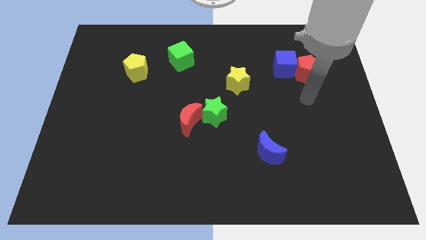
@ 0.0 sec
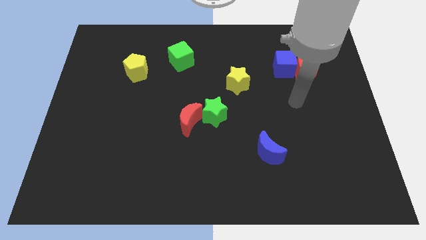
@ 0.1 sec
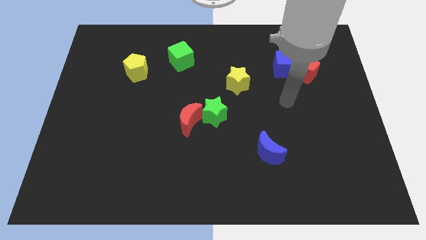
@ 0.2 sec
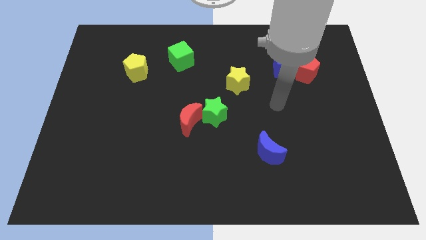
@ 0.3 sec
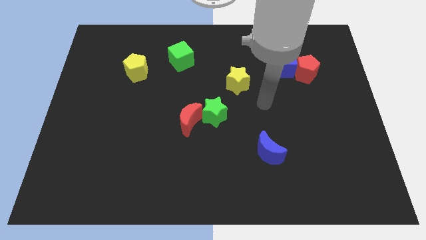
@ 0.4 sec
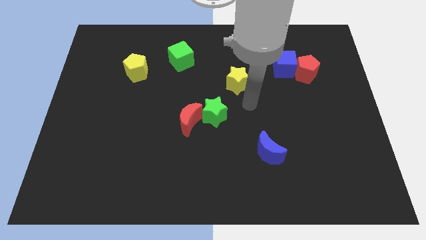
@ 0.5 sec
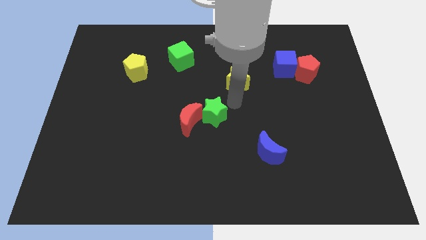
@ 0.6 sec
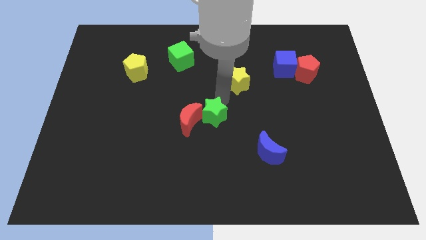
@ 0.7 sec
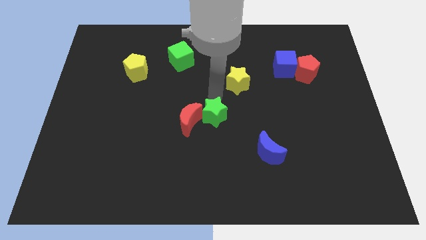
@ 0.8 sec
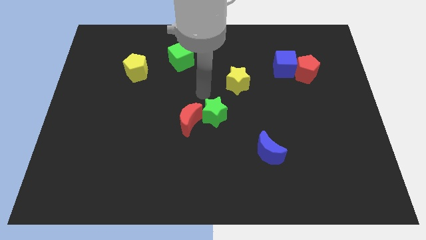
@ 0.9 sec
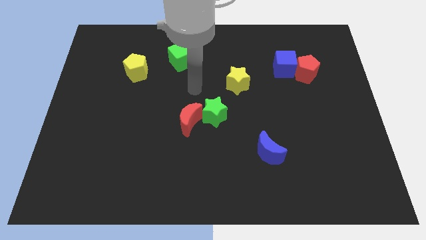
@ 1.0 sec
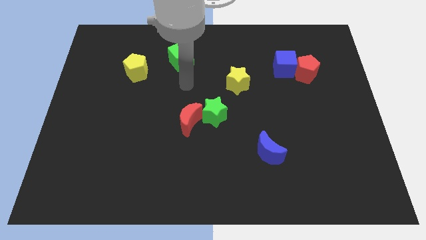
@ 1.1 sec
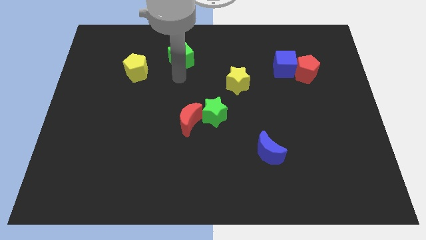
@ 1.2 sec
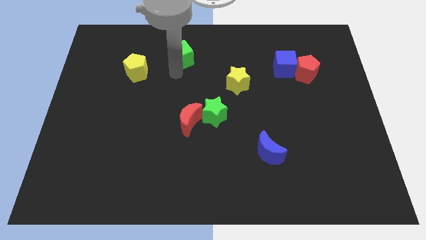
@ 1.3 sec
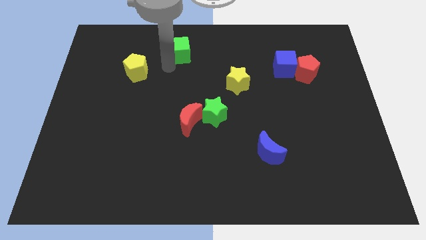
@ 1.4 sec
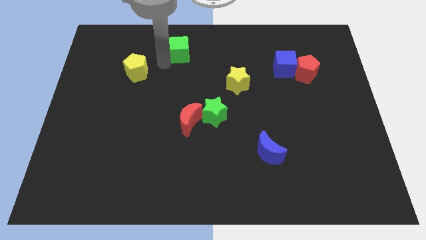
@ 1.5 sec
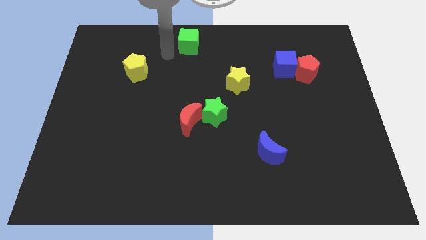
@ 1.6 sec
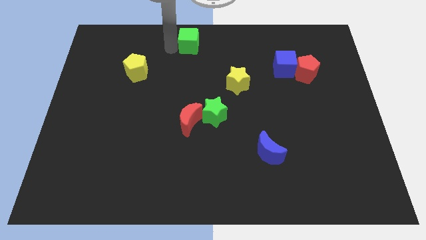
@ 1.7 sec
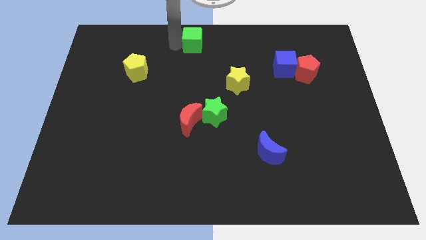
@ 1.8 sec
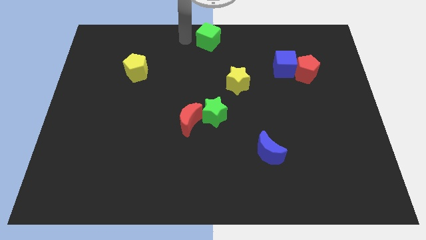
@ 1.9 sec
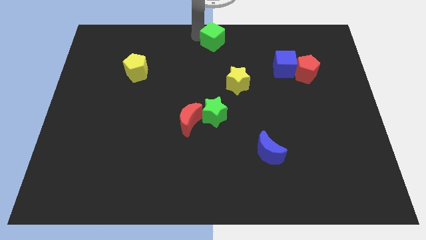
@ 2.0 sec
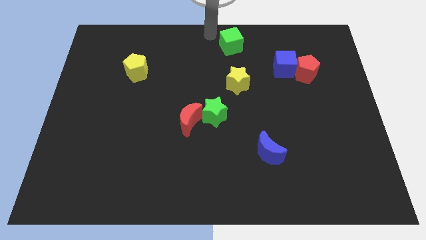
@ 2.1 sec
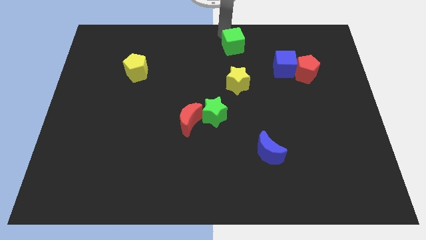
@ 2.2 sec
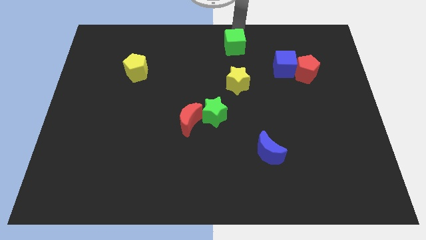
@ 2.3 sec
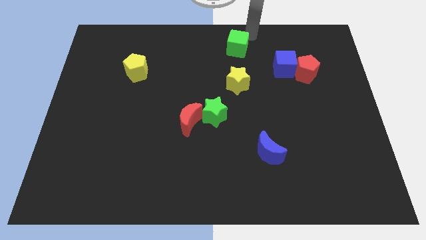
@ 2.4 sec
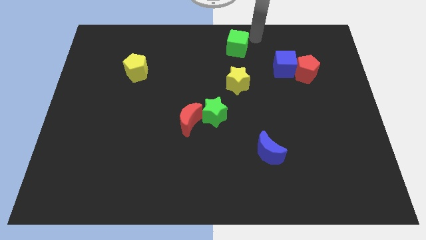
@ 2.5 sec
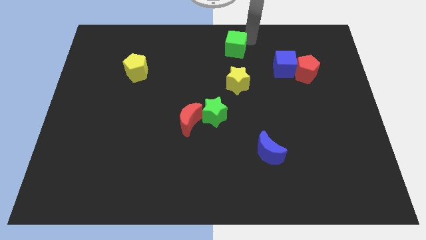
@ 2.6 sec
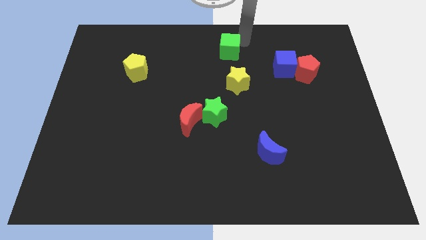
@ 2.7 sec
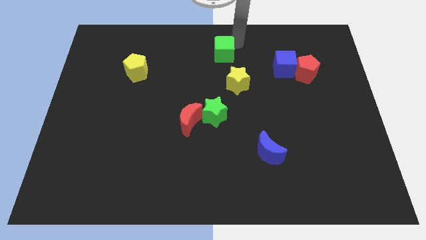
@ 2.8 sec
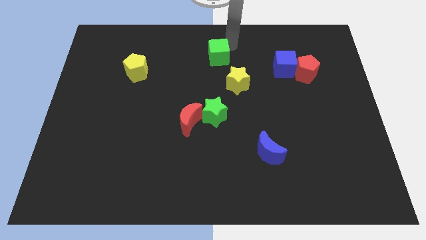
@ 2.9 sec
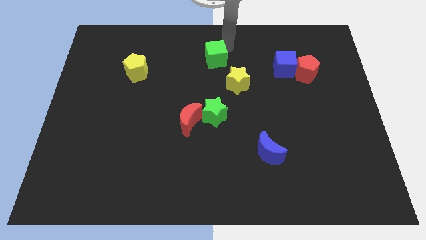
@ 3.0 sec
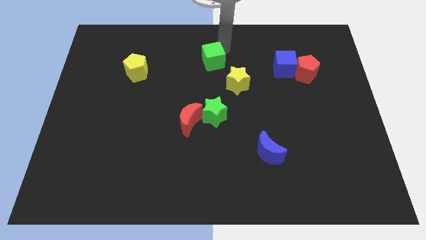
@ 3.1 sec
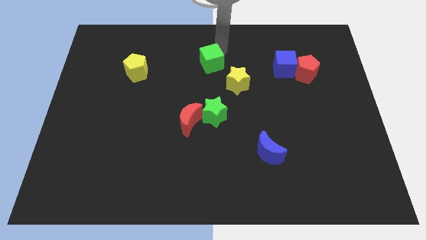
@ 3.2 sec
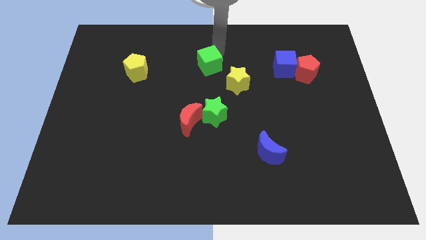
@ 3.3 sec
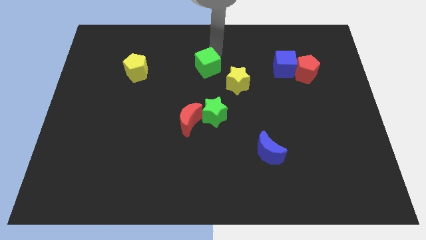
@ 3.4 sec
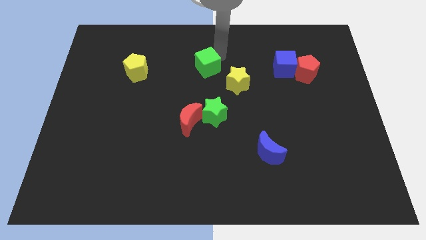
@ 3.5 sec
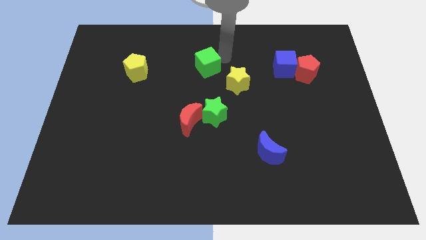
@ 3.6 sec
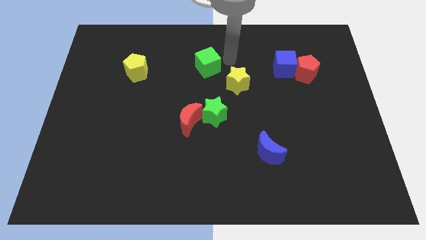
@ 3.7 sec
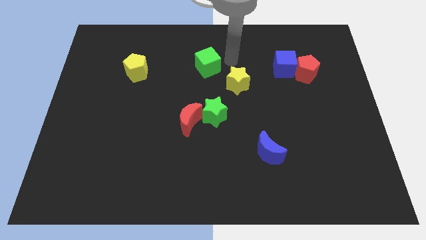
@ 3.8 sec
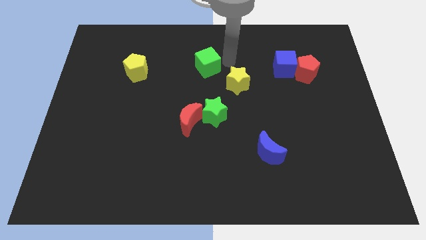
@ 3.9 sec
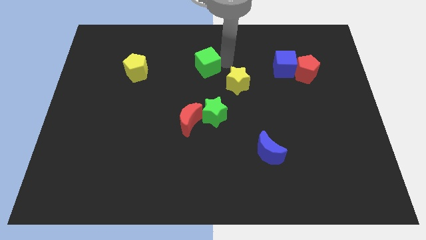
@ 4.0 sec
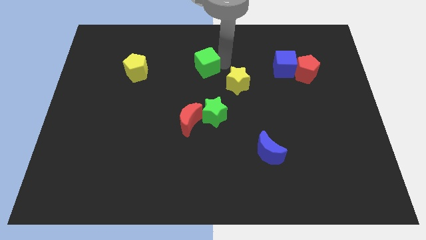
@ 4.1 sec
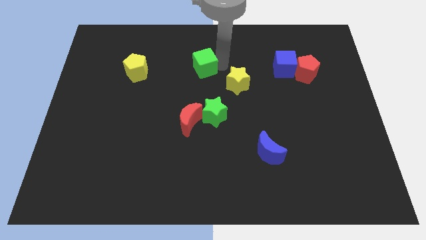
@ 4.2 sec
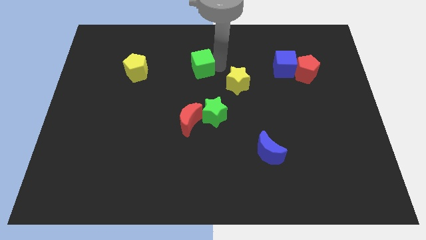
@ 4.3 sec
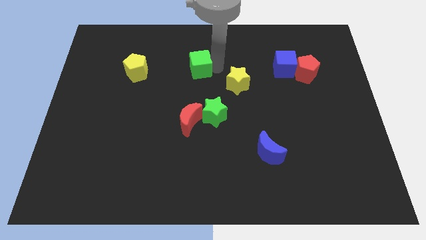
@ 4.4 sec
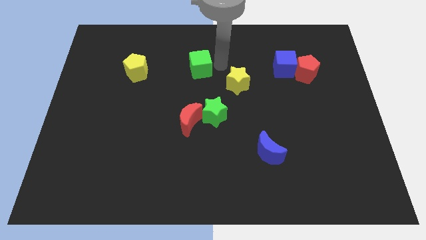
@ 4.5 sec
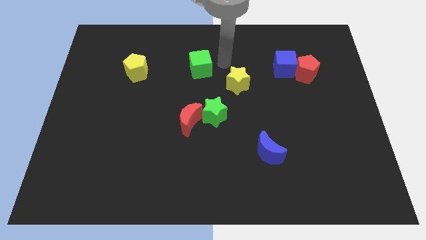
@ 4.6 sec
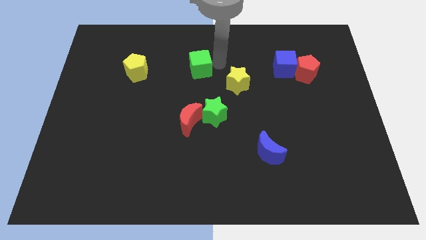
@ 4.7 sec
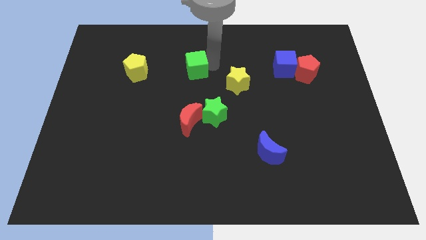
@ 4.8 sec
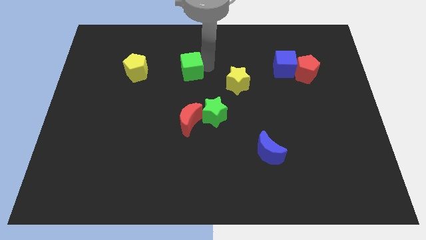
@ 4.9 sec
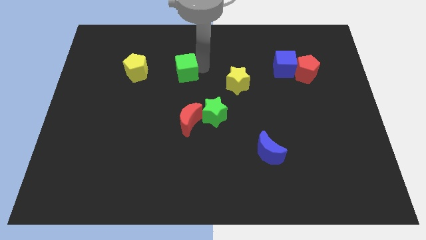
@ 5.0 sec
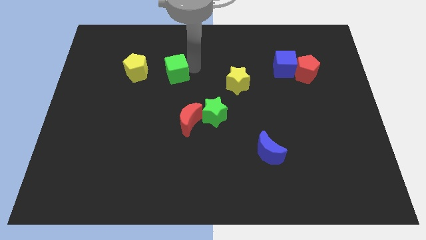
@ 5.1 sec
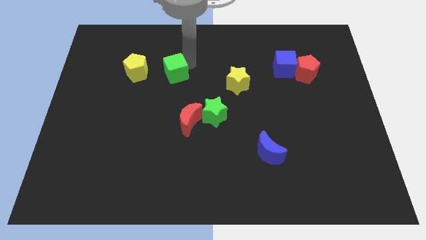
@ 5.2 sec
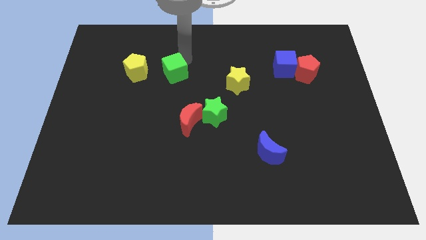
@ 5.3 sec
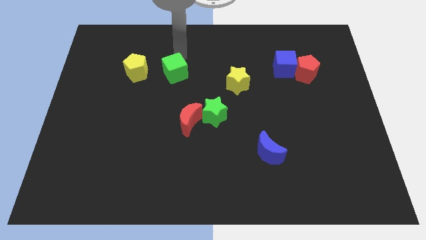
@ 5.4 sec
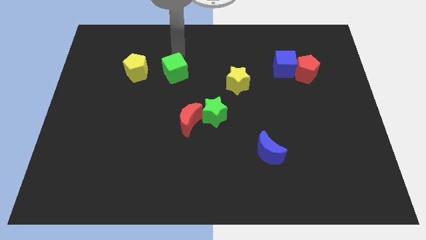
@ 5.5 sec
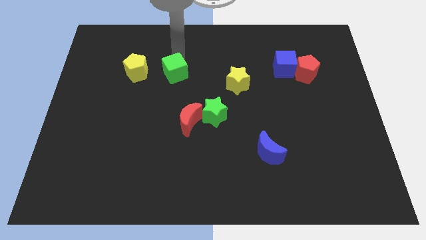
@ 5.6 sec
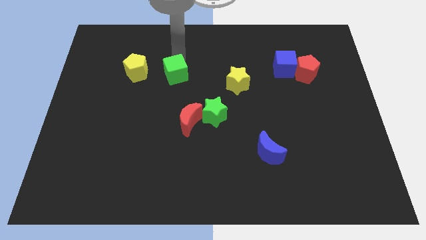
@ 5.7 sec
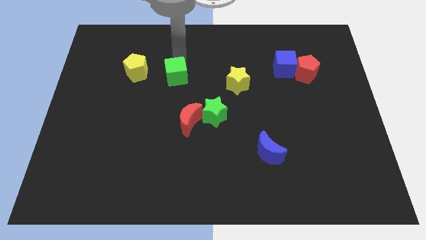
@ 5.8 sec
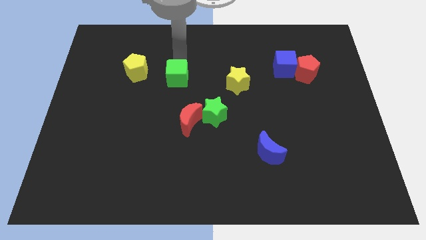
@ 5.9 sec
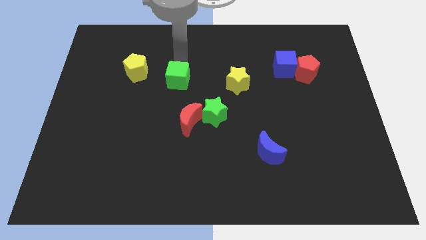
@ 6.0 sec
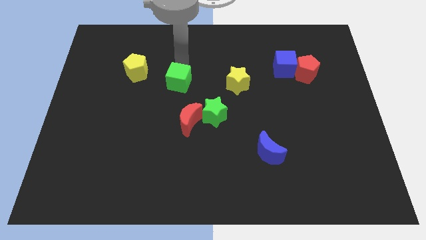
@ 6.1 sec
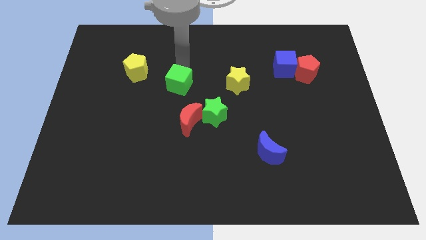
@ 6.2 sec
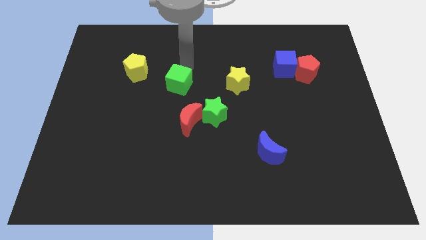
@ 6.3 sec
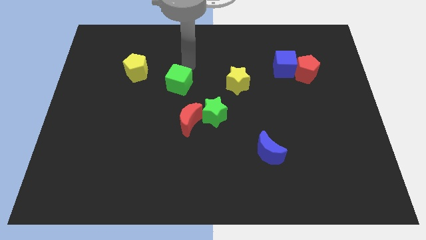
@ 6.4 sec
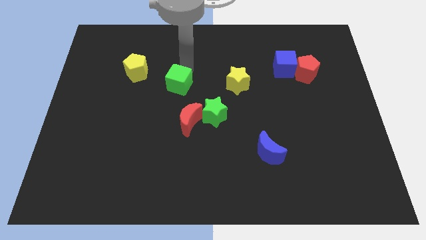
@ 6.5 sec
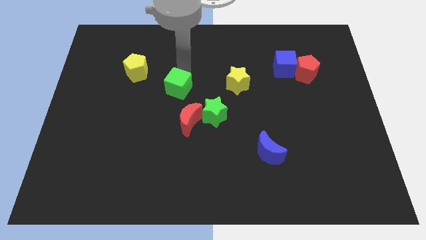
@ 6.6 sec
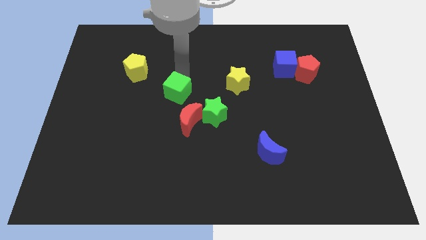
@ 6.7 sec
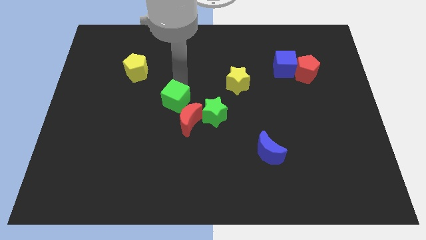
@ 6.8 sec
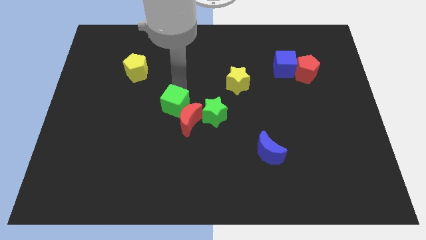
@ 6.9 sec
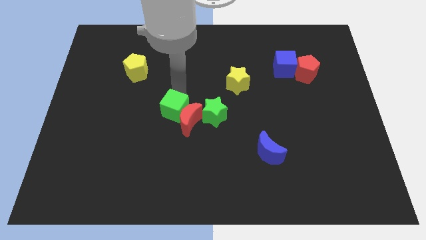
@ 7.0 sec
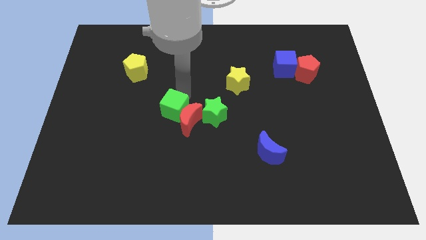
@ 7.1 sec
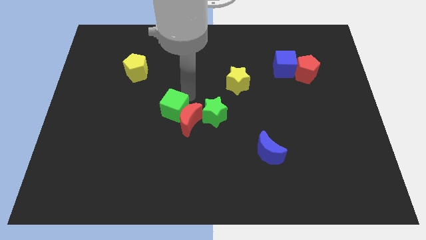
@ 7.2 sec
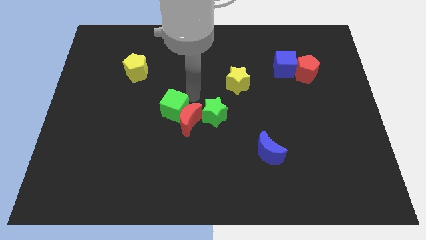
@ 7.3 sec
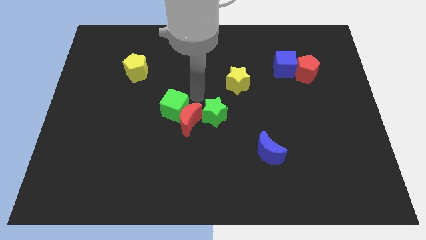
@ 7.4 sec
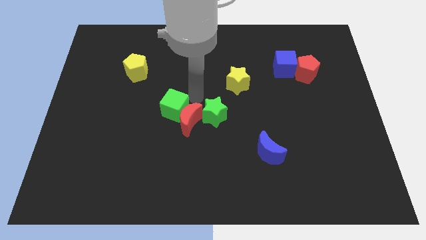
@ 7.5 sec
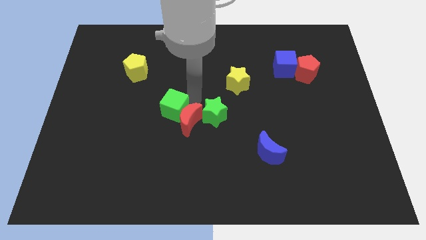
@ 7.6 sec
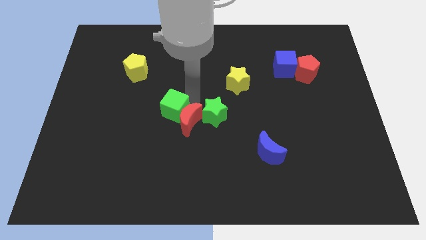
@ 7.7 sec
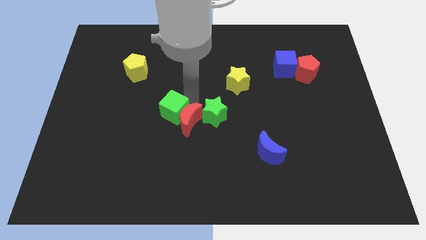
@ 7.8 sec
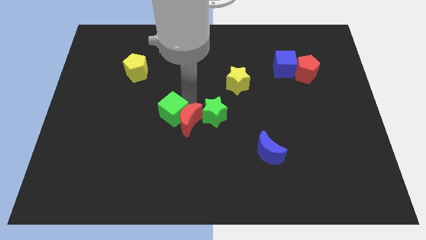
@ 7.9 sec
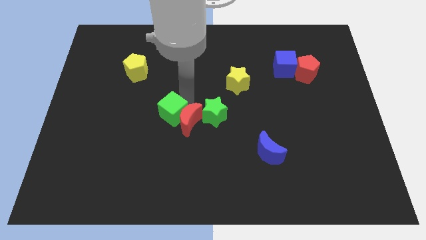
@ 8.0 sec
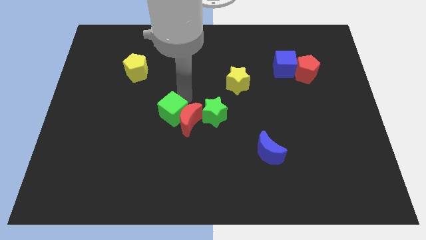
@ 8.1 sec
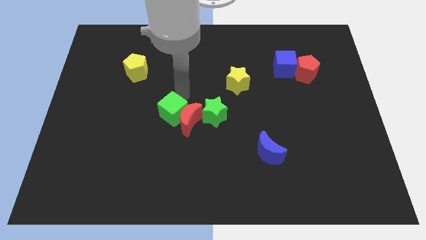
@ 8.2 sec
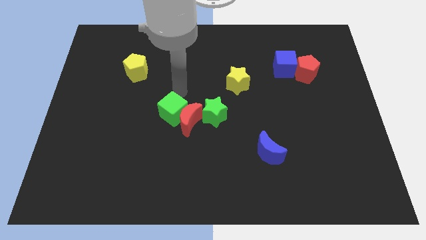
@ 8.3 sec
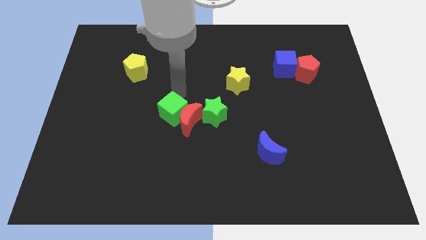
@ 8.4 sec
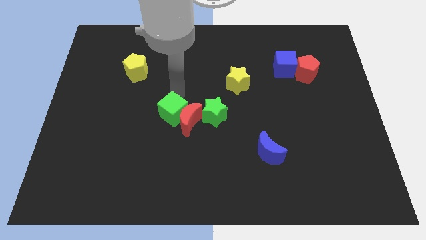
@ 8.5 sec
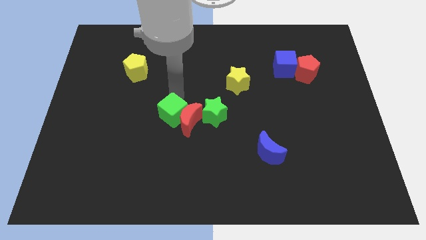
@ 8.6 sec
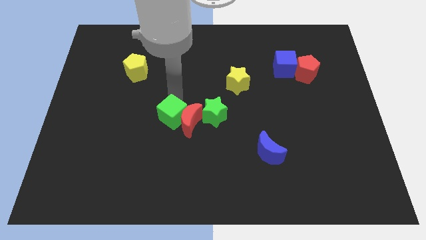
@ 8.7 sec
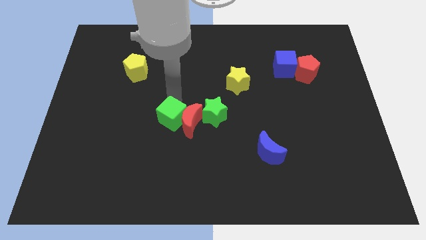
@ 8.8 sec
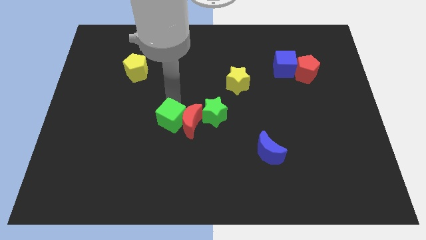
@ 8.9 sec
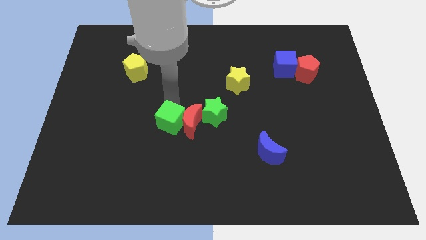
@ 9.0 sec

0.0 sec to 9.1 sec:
slide the green cube down
